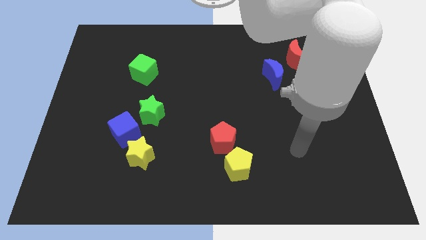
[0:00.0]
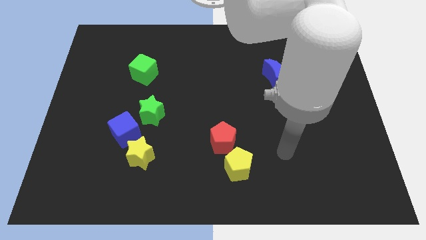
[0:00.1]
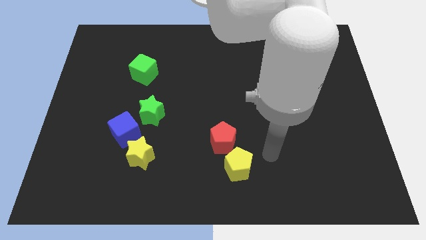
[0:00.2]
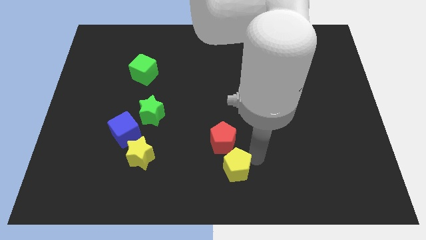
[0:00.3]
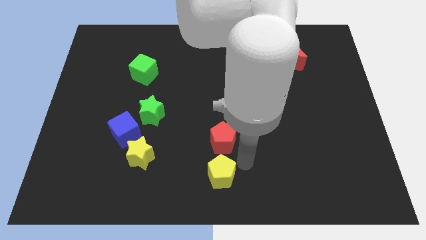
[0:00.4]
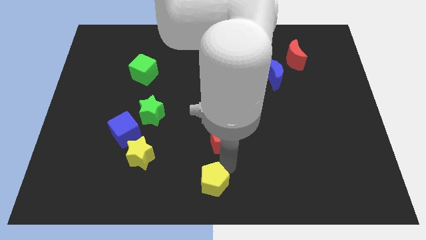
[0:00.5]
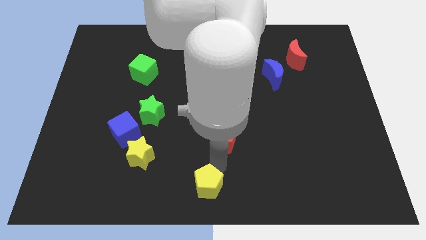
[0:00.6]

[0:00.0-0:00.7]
move the red pentagon away from the yellow pentagon

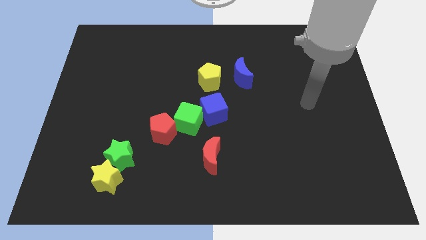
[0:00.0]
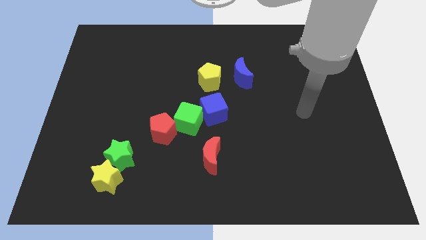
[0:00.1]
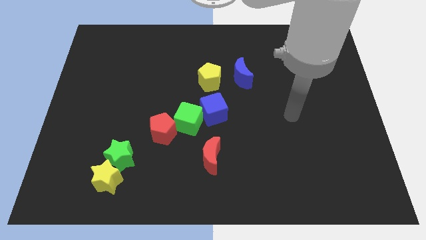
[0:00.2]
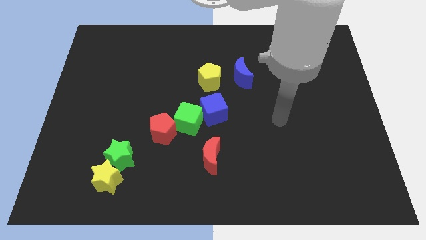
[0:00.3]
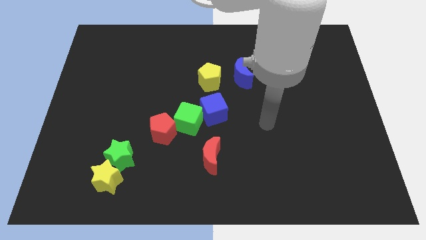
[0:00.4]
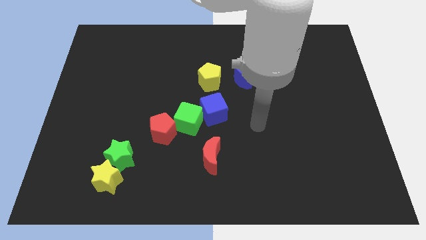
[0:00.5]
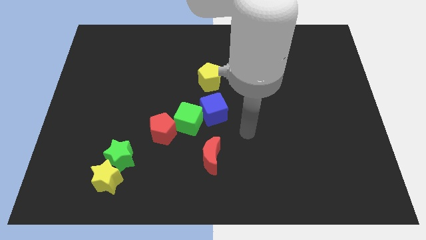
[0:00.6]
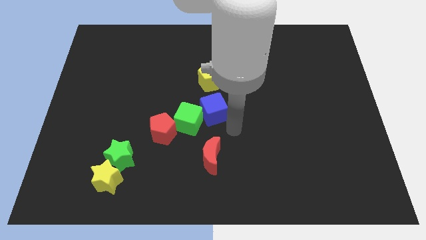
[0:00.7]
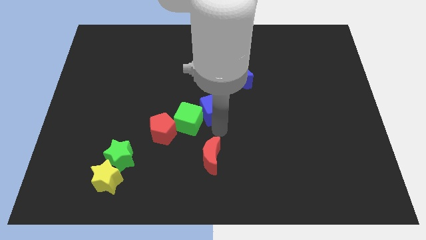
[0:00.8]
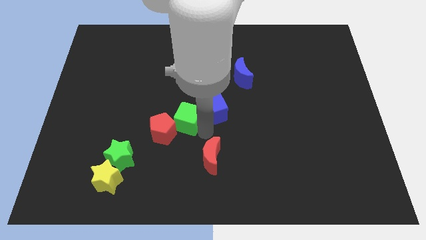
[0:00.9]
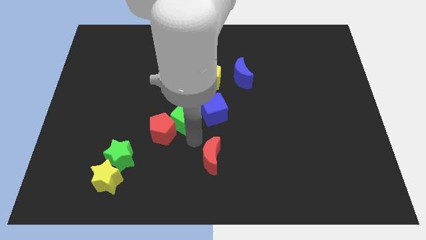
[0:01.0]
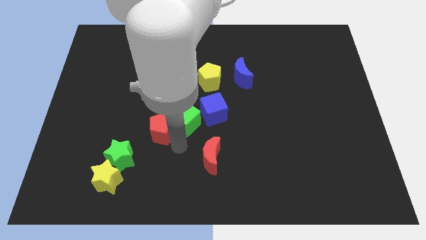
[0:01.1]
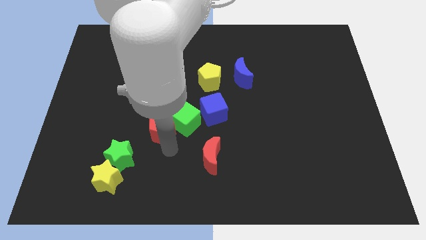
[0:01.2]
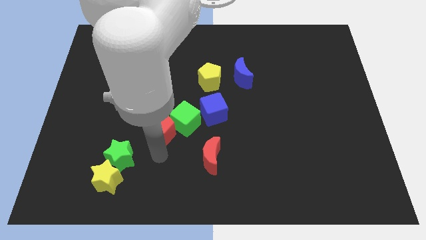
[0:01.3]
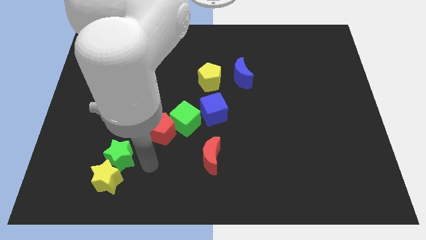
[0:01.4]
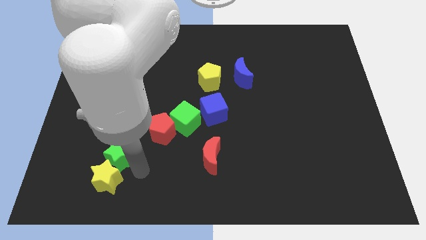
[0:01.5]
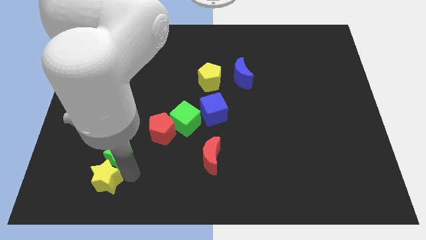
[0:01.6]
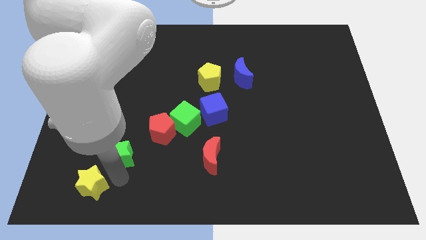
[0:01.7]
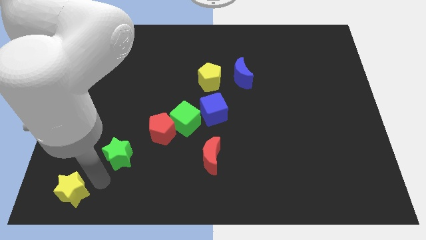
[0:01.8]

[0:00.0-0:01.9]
separate the green star from the yellow star

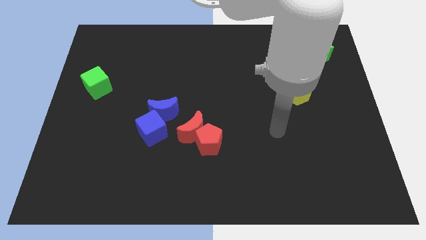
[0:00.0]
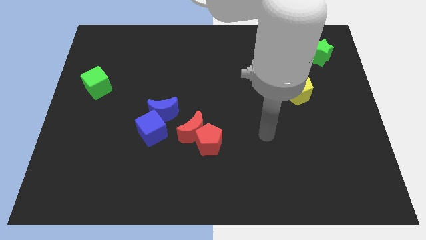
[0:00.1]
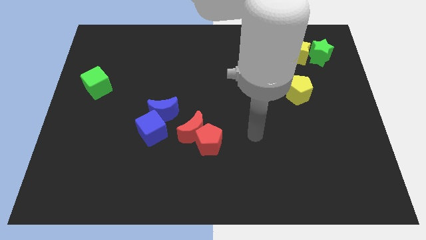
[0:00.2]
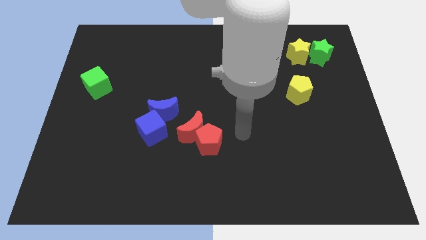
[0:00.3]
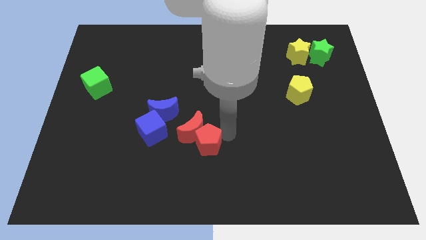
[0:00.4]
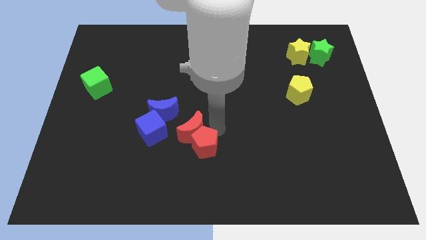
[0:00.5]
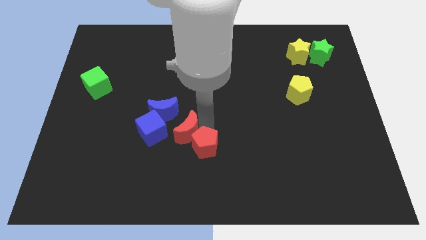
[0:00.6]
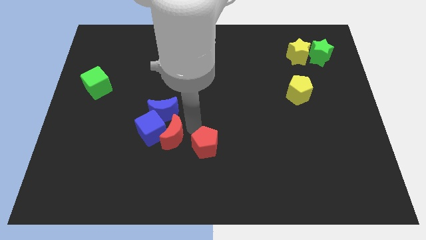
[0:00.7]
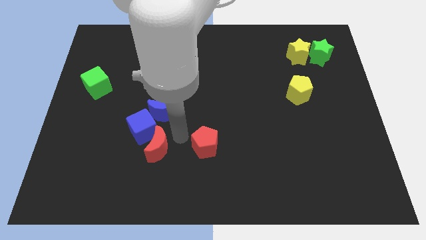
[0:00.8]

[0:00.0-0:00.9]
move the red pentagon away from the red moon

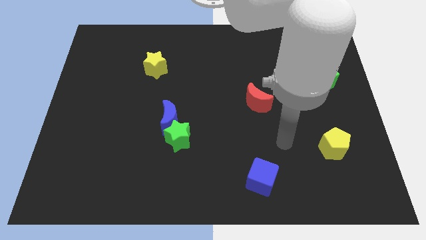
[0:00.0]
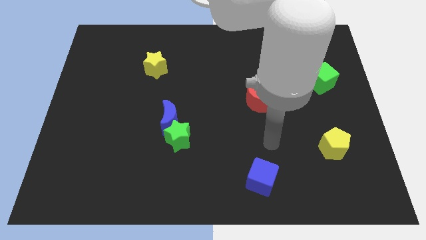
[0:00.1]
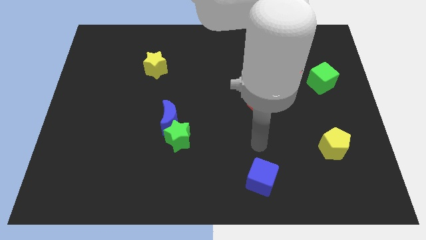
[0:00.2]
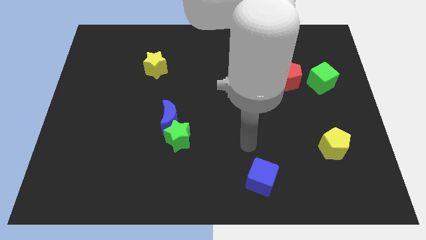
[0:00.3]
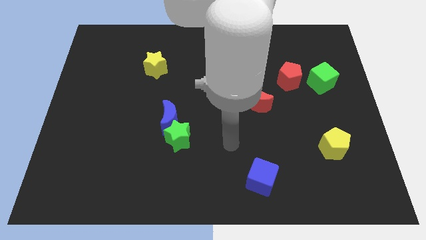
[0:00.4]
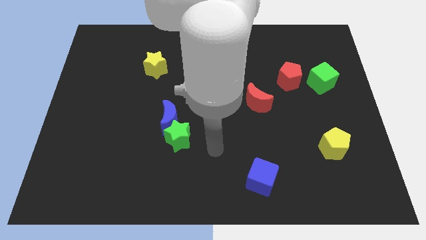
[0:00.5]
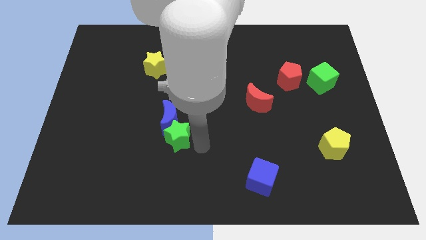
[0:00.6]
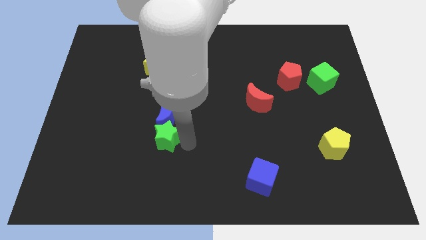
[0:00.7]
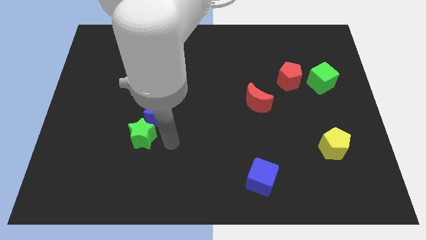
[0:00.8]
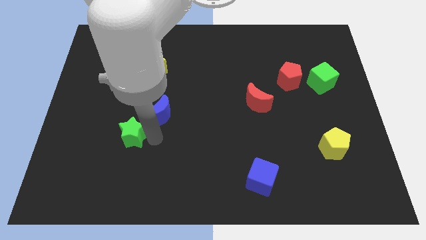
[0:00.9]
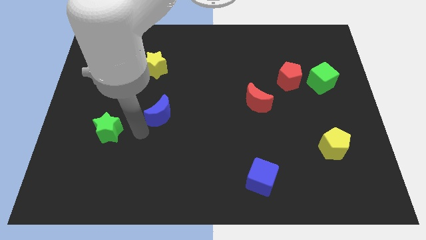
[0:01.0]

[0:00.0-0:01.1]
pull the blue moon apart from the green star

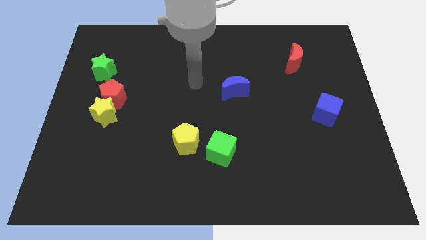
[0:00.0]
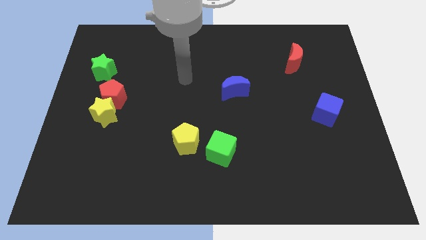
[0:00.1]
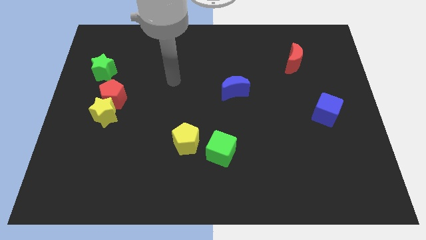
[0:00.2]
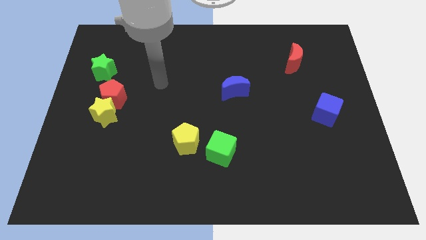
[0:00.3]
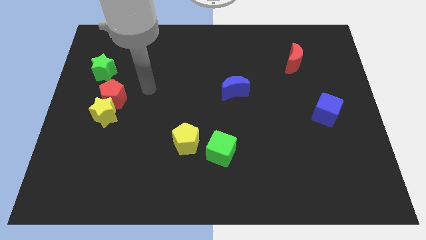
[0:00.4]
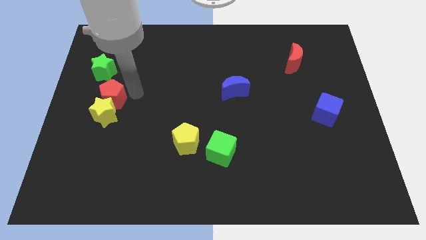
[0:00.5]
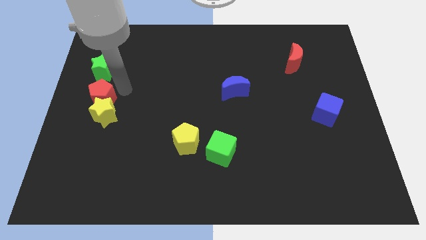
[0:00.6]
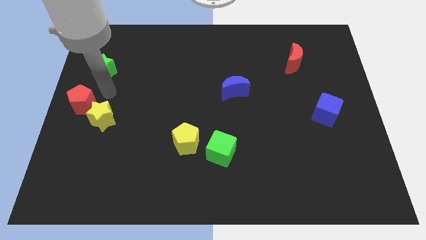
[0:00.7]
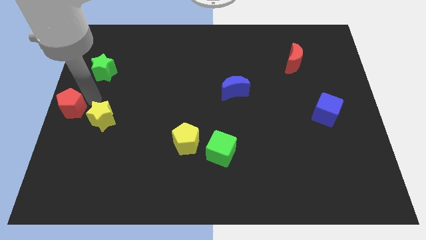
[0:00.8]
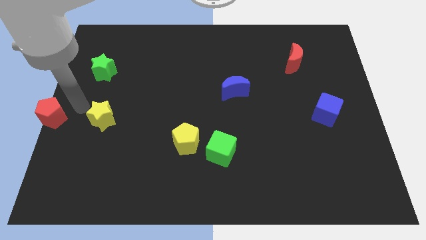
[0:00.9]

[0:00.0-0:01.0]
pull the yellow star apart from the red pentagon

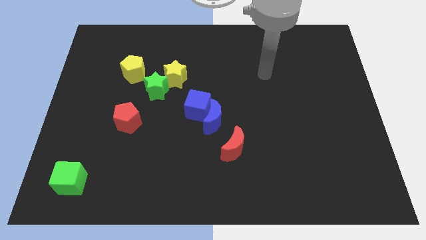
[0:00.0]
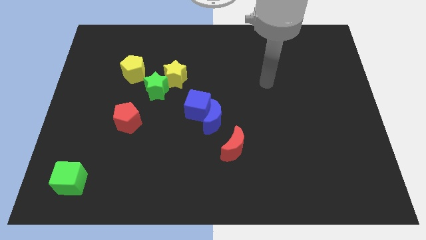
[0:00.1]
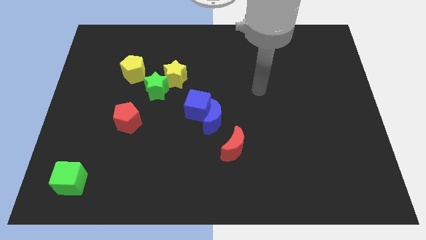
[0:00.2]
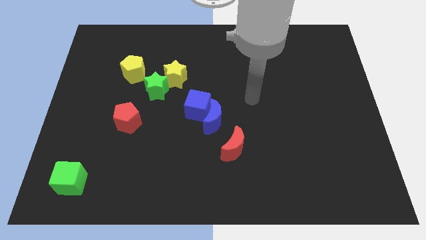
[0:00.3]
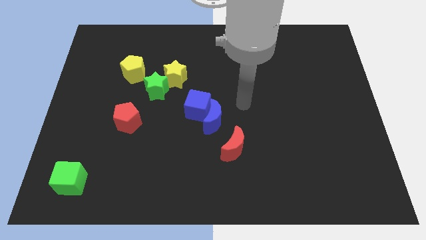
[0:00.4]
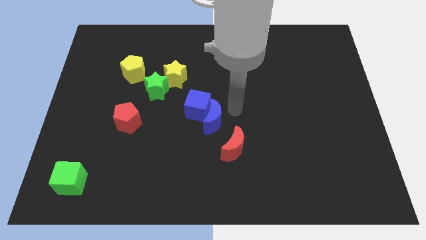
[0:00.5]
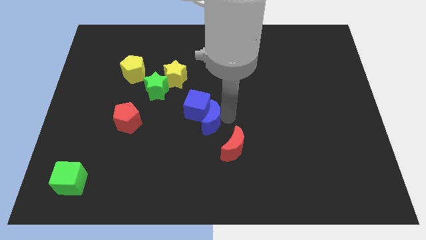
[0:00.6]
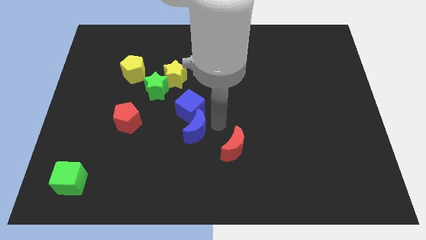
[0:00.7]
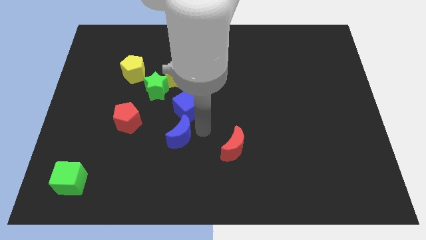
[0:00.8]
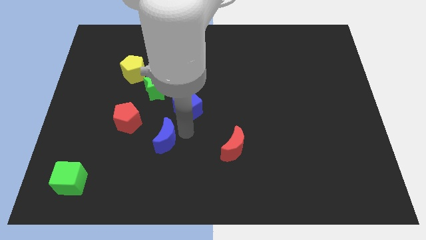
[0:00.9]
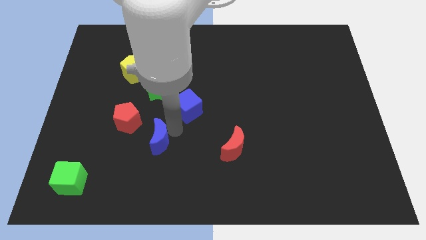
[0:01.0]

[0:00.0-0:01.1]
move the blue cube away from the blue moon

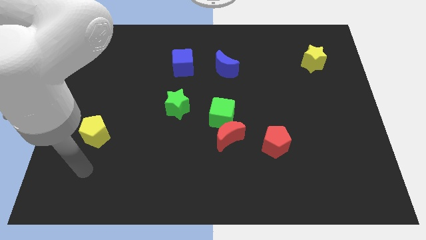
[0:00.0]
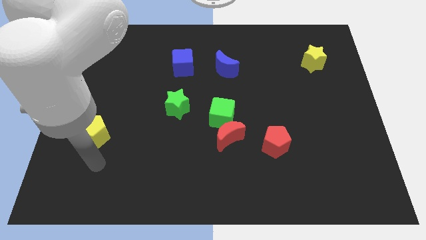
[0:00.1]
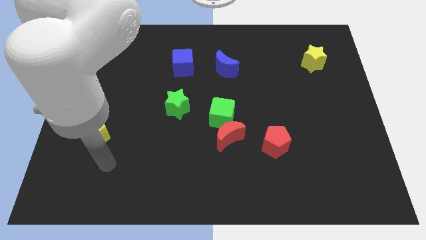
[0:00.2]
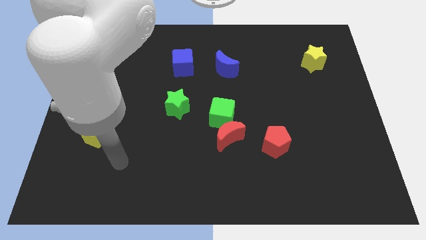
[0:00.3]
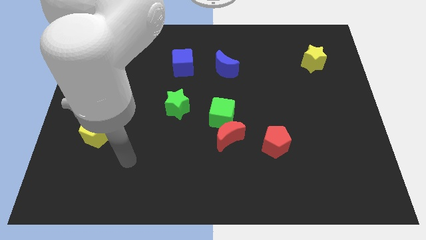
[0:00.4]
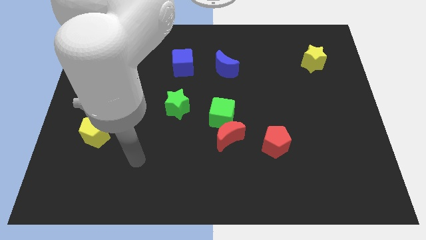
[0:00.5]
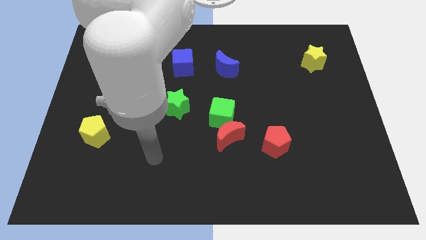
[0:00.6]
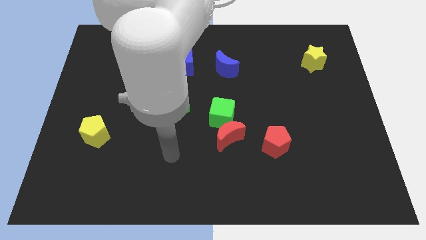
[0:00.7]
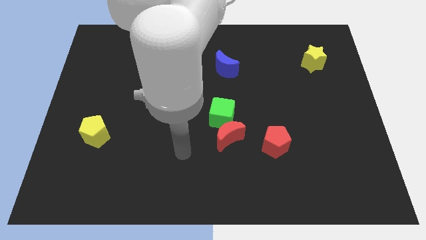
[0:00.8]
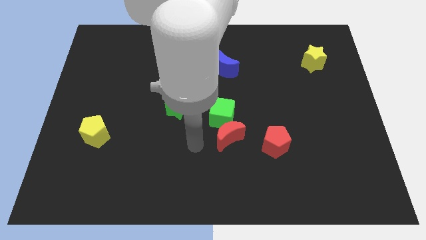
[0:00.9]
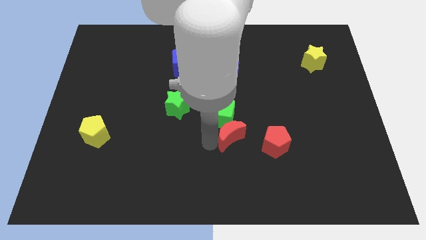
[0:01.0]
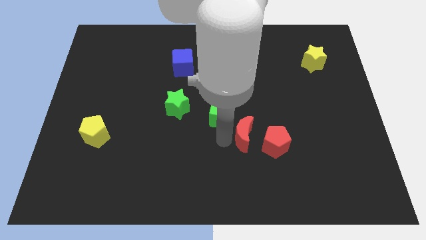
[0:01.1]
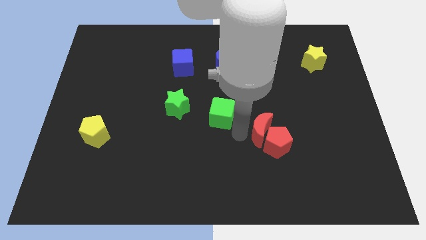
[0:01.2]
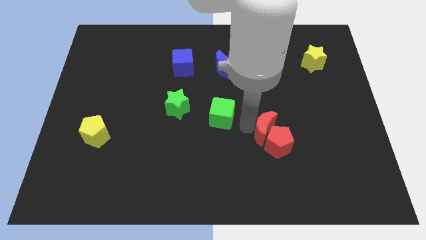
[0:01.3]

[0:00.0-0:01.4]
pull the green cube apart from the red moon

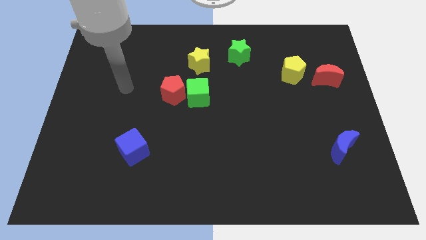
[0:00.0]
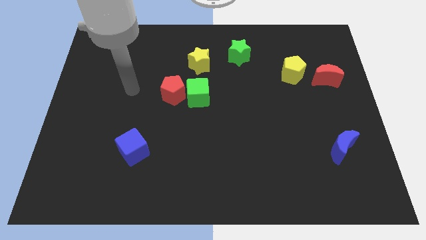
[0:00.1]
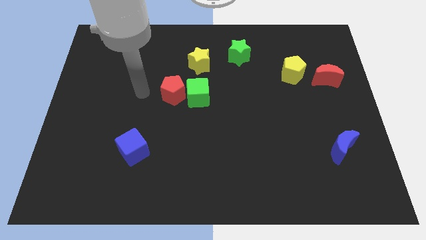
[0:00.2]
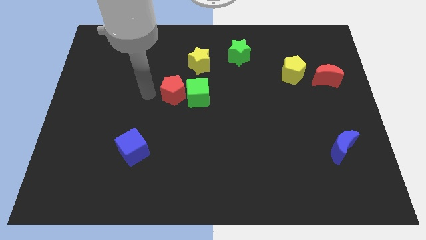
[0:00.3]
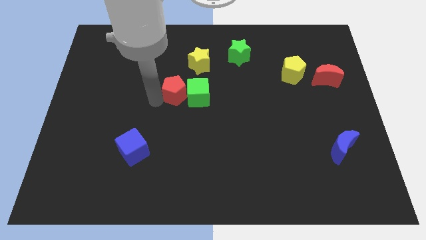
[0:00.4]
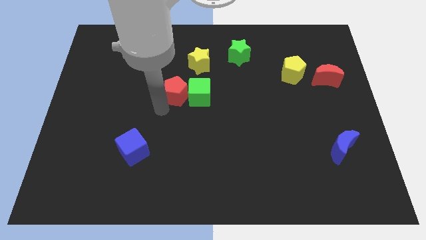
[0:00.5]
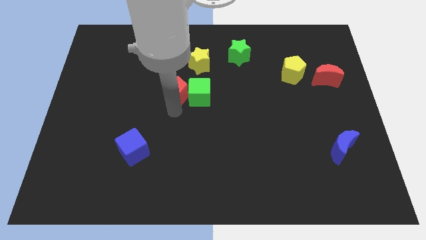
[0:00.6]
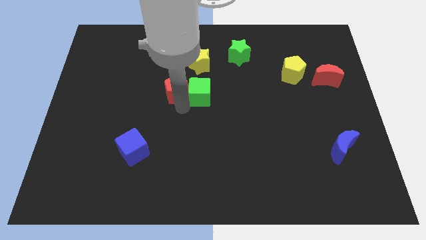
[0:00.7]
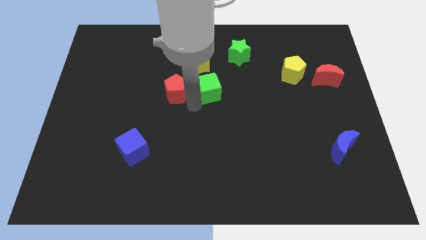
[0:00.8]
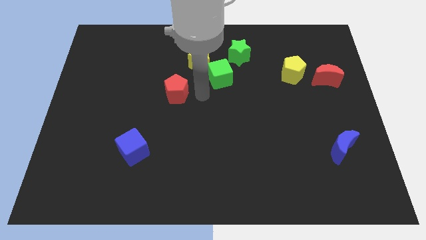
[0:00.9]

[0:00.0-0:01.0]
move the red pentagon away from the green cube

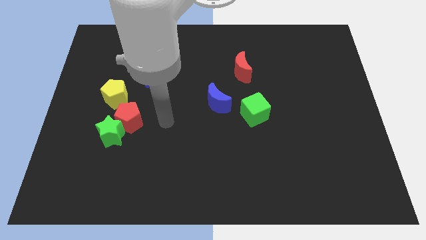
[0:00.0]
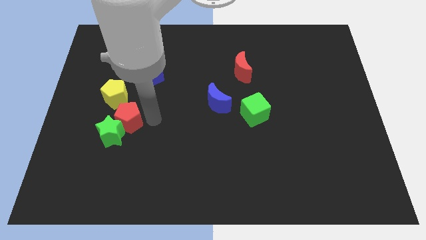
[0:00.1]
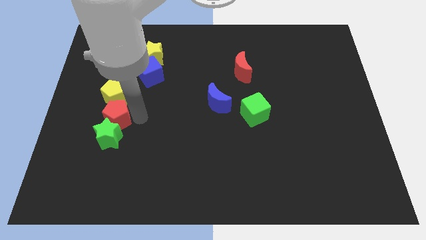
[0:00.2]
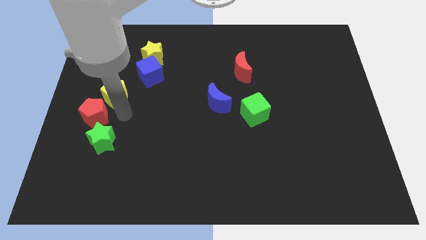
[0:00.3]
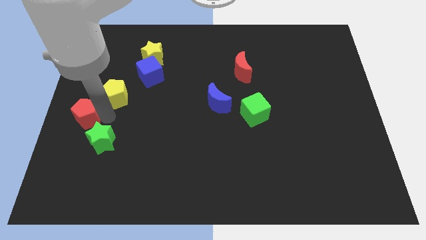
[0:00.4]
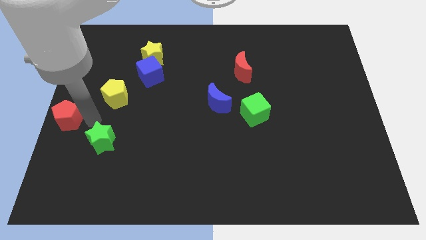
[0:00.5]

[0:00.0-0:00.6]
pull the green star apart from the red pentagon
